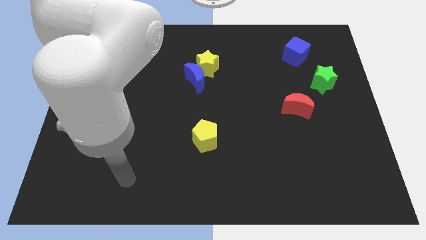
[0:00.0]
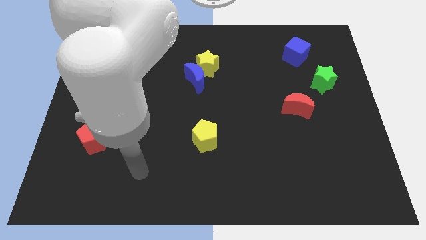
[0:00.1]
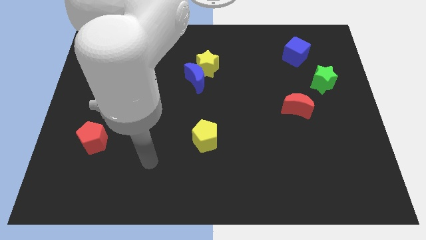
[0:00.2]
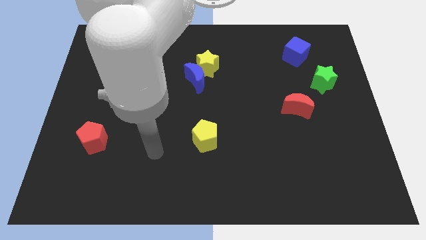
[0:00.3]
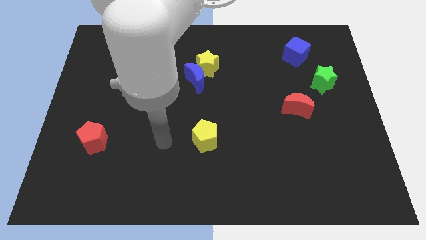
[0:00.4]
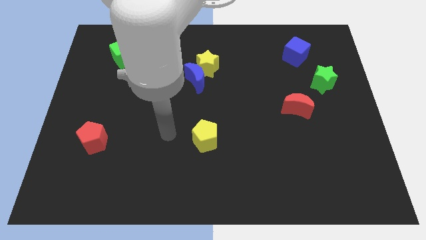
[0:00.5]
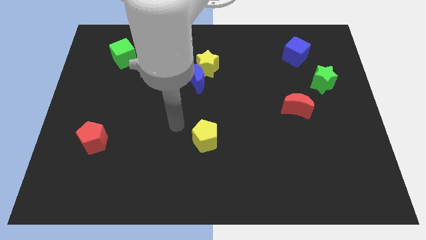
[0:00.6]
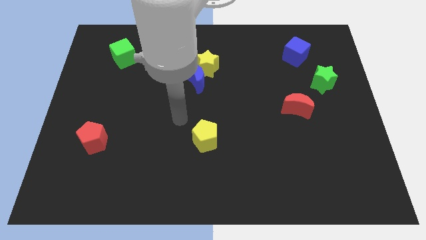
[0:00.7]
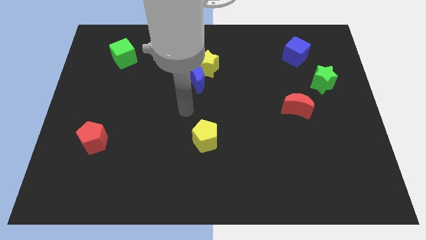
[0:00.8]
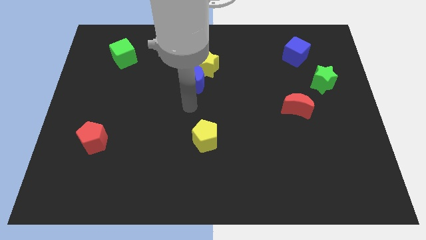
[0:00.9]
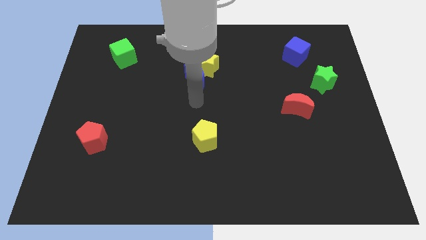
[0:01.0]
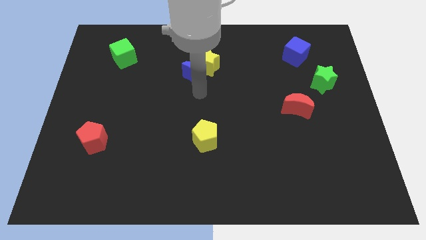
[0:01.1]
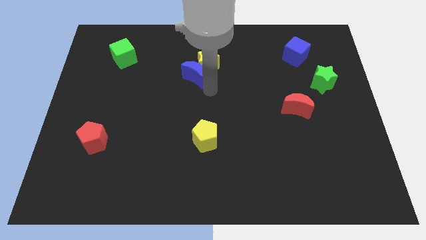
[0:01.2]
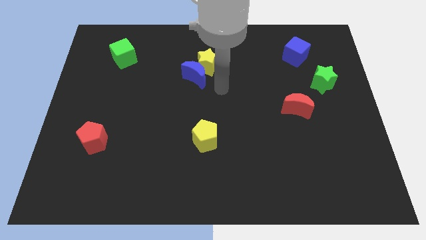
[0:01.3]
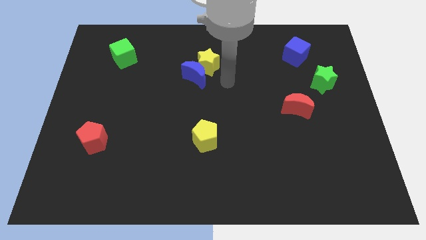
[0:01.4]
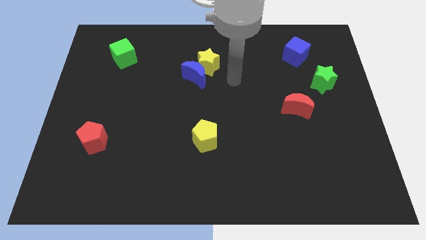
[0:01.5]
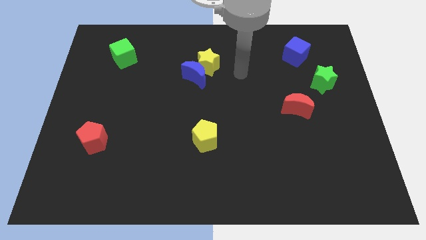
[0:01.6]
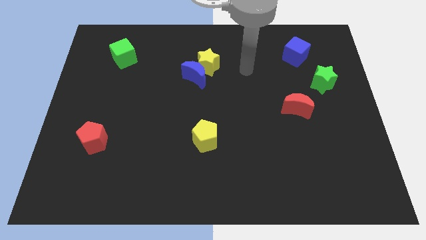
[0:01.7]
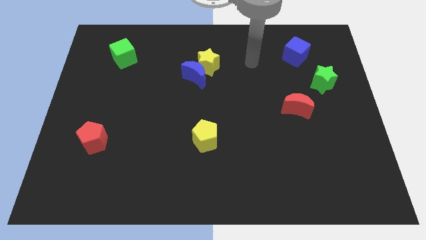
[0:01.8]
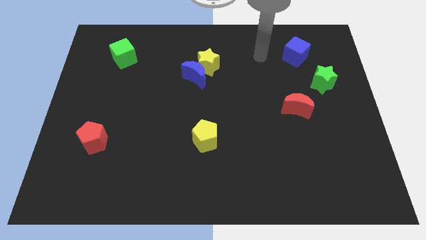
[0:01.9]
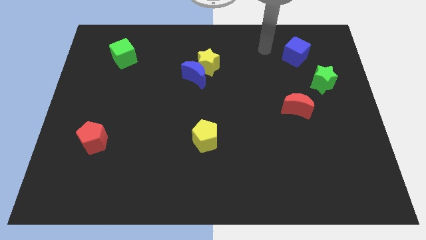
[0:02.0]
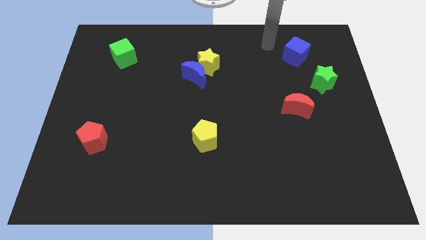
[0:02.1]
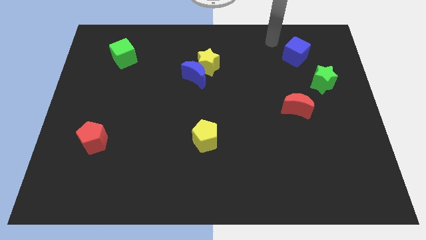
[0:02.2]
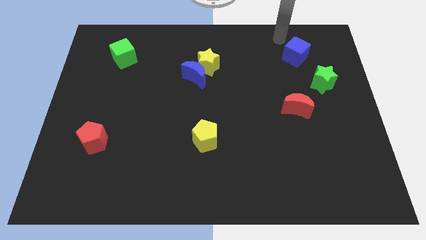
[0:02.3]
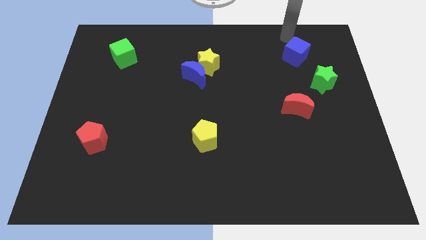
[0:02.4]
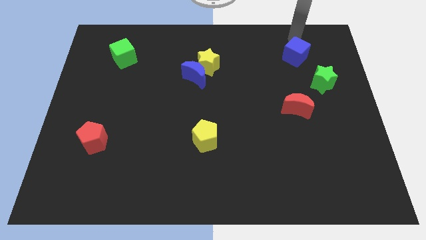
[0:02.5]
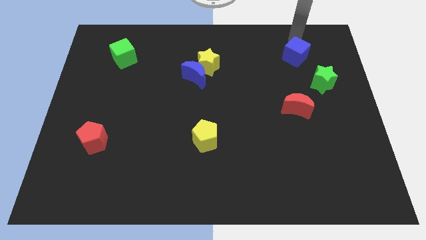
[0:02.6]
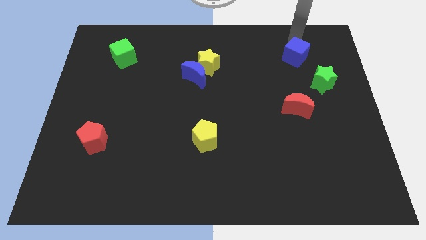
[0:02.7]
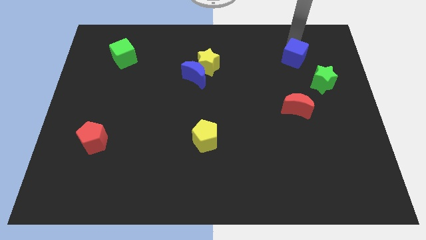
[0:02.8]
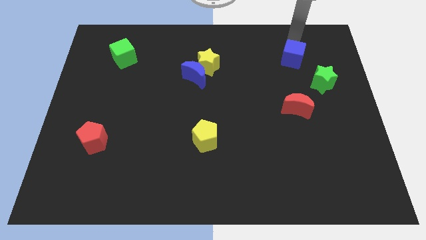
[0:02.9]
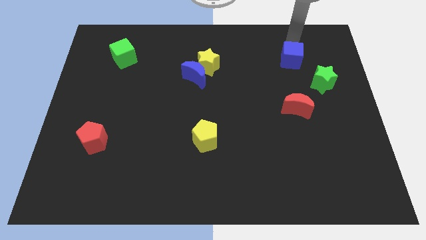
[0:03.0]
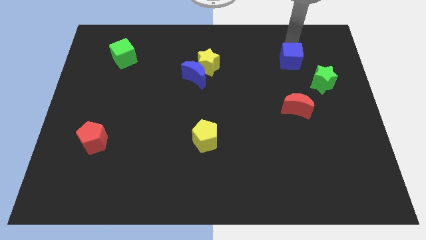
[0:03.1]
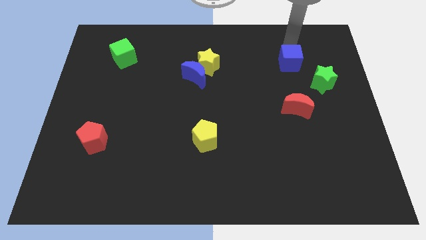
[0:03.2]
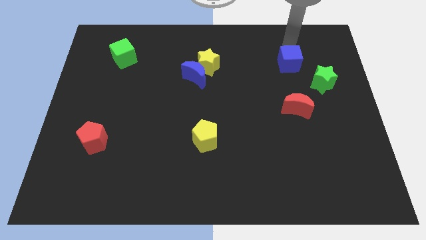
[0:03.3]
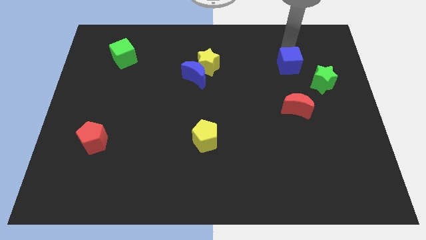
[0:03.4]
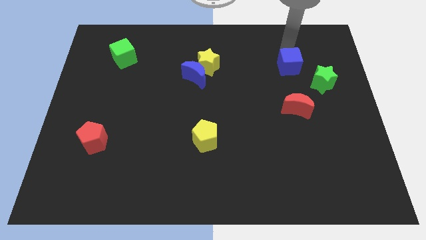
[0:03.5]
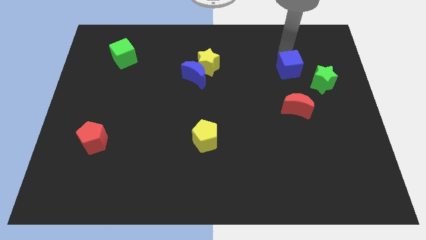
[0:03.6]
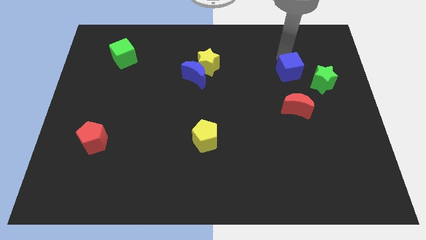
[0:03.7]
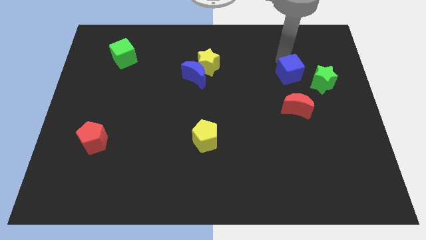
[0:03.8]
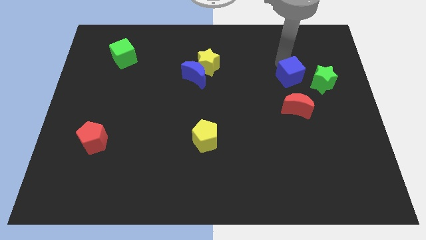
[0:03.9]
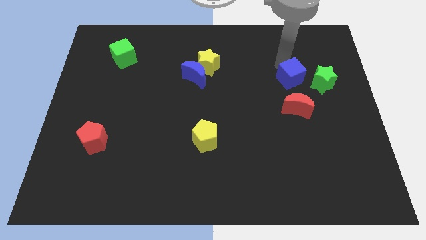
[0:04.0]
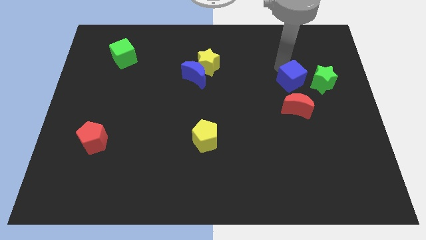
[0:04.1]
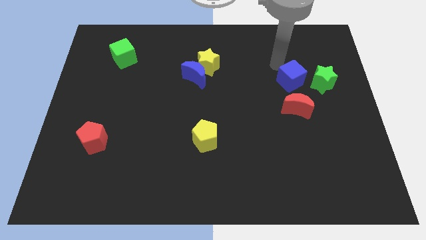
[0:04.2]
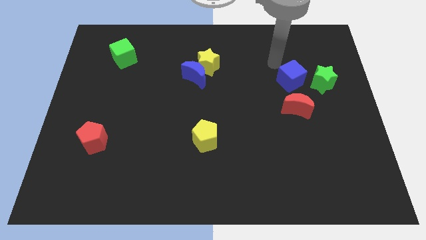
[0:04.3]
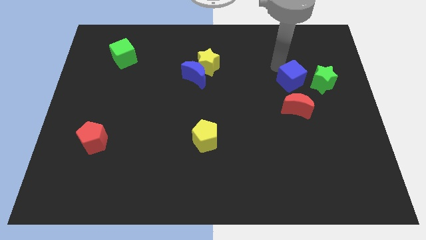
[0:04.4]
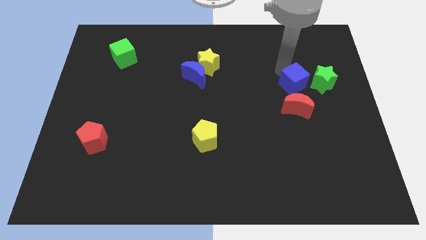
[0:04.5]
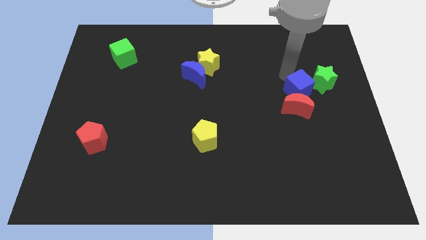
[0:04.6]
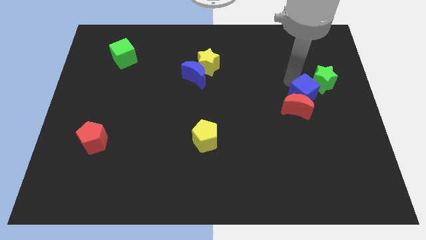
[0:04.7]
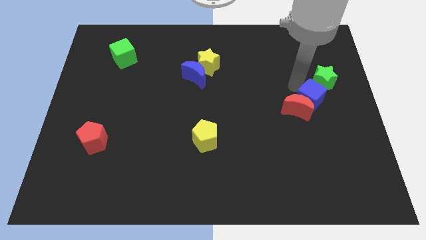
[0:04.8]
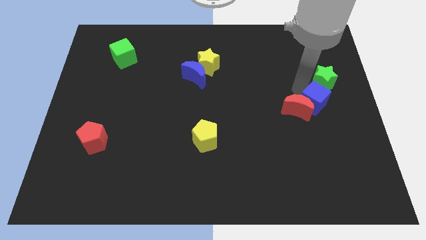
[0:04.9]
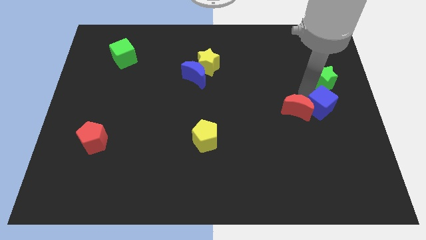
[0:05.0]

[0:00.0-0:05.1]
move the blue cube diagonally down and to the right of the red moon

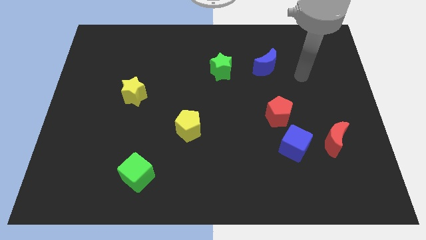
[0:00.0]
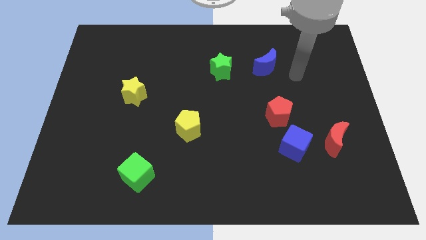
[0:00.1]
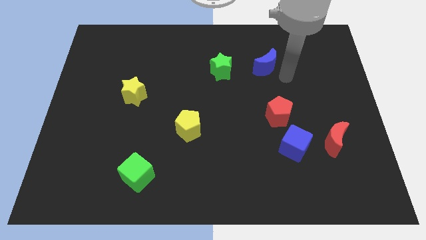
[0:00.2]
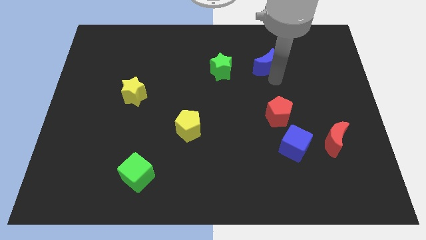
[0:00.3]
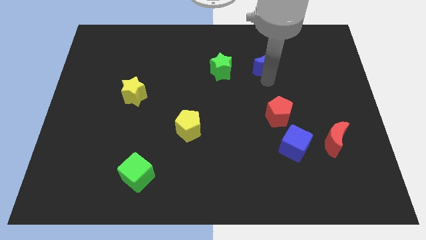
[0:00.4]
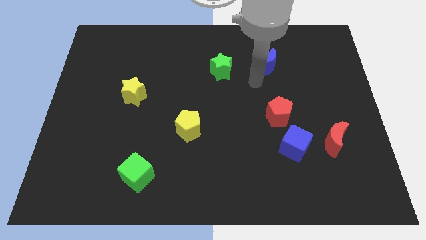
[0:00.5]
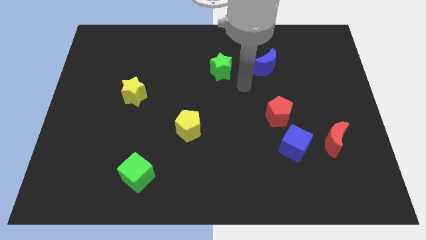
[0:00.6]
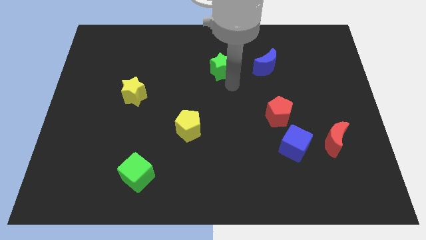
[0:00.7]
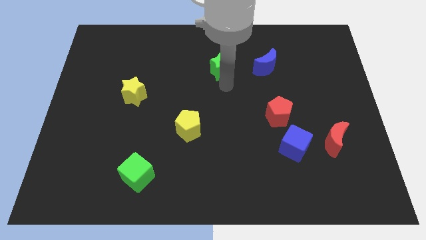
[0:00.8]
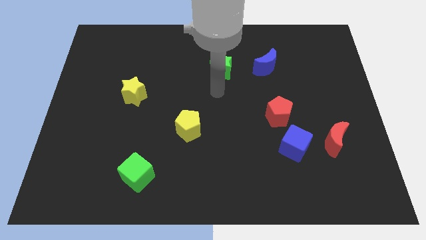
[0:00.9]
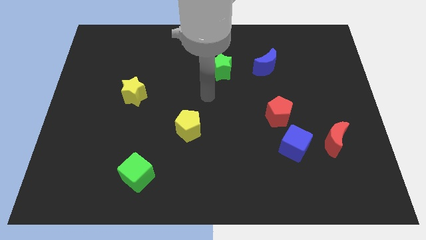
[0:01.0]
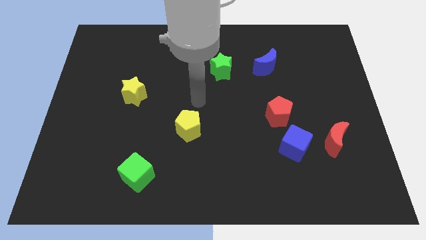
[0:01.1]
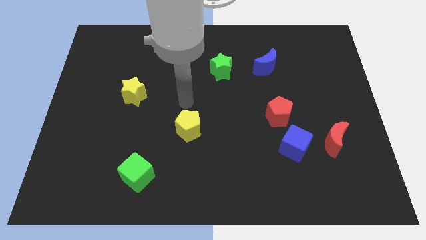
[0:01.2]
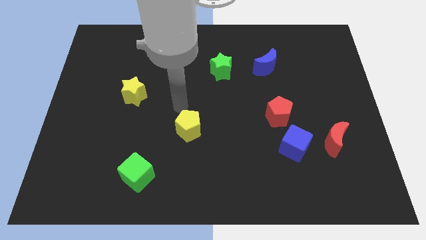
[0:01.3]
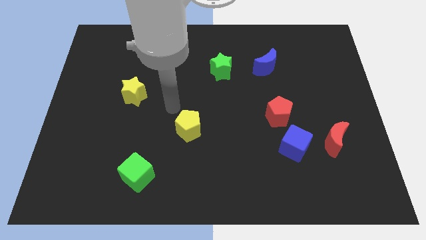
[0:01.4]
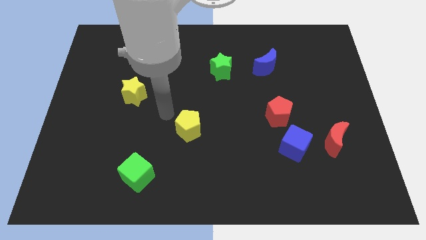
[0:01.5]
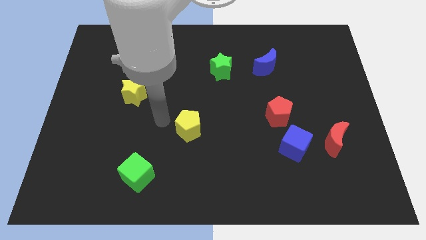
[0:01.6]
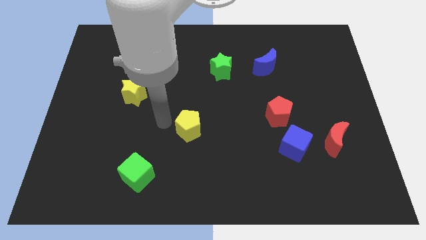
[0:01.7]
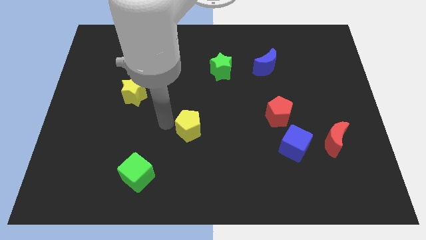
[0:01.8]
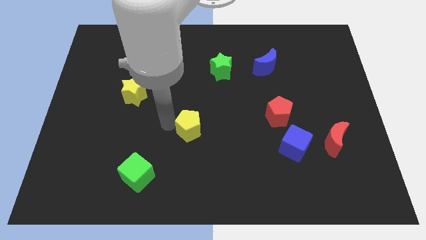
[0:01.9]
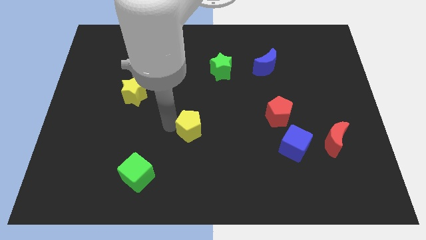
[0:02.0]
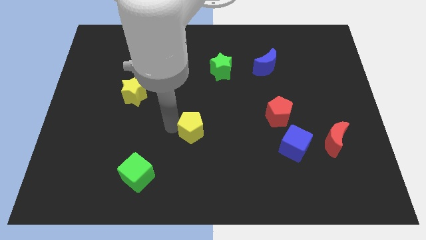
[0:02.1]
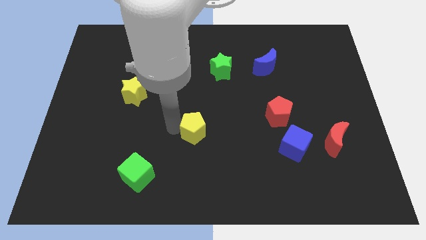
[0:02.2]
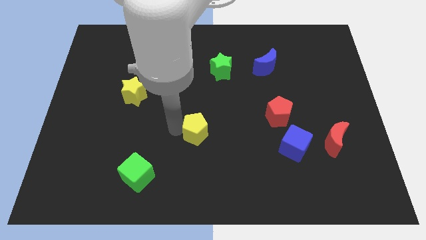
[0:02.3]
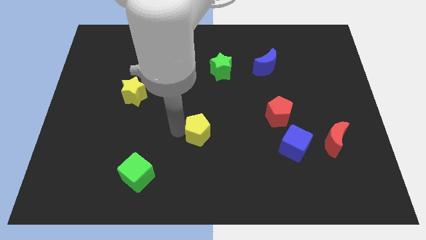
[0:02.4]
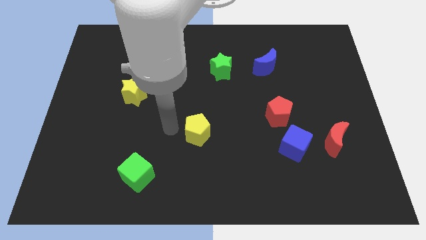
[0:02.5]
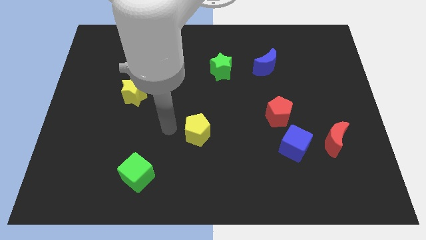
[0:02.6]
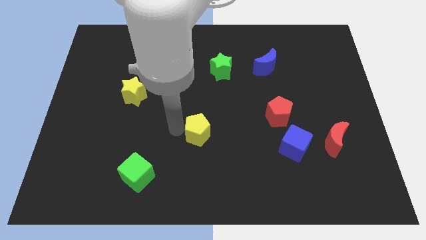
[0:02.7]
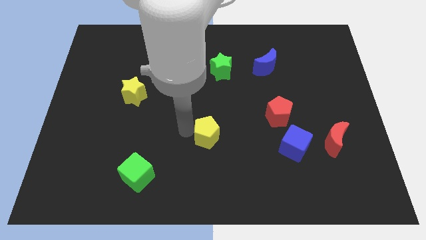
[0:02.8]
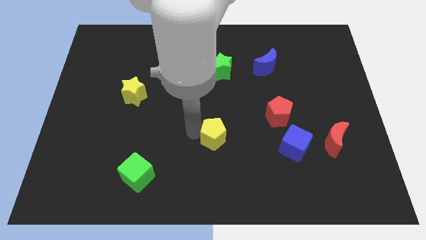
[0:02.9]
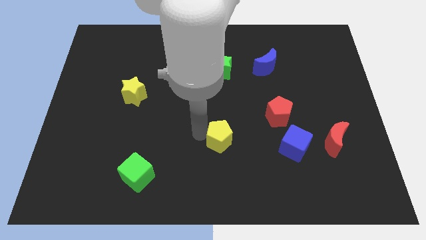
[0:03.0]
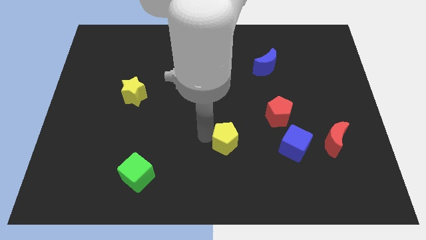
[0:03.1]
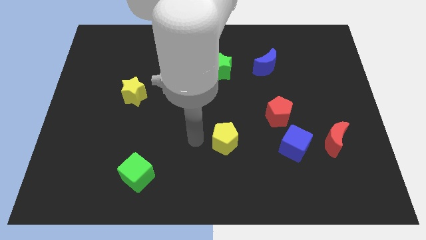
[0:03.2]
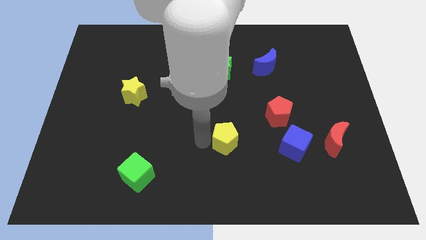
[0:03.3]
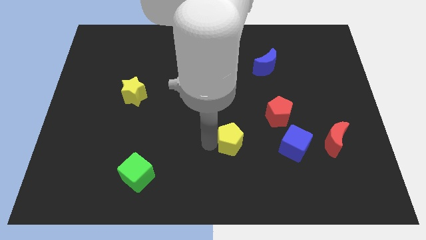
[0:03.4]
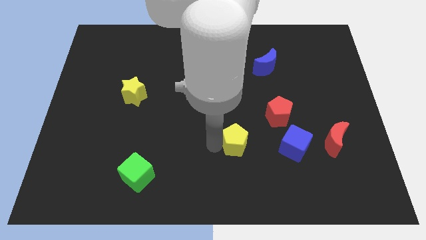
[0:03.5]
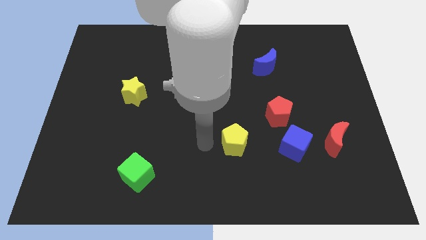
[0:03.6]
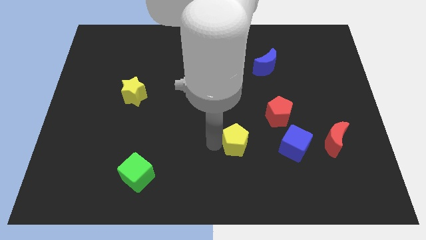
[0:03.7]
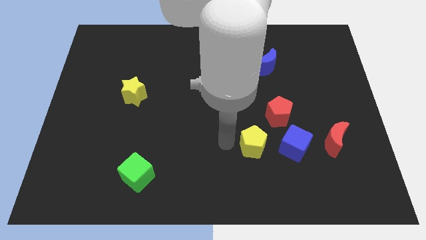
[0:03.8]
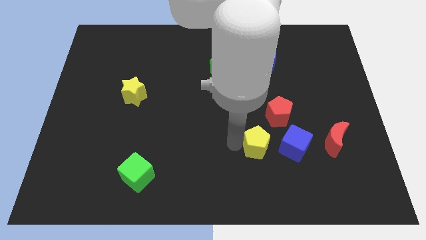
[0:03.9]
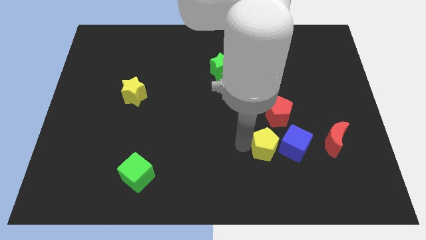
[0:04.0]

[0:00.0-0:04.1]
move the yellow pentagon to the left of the red moon
